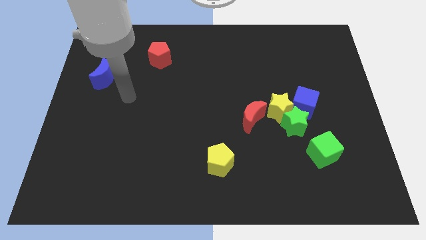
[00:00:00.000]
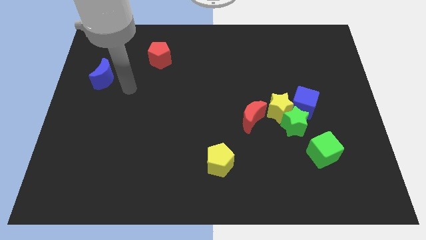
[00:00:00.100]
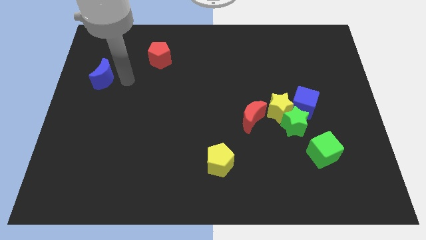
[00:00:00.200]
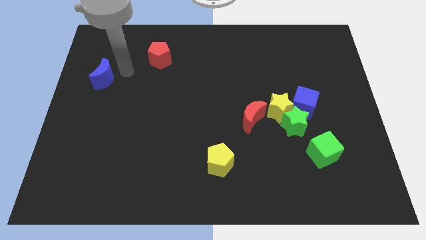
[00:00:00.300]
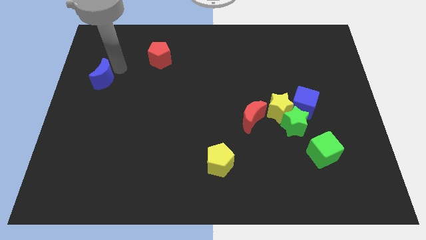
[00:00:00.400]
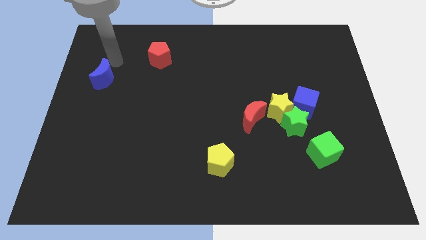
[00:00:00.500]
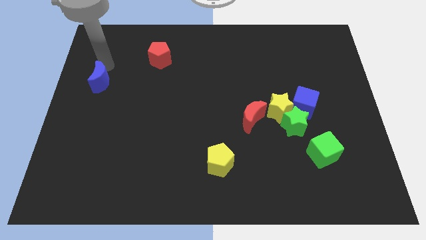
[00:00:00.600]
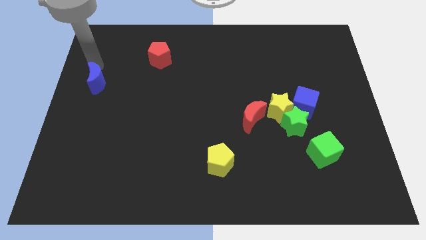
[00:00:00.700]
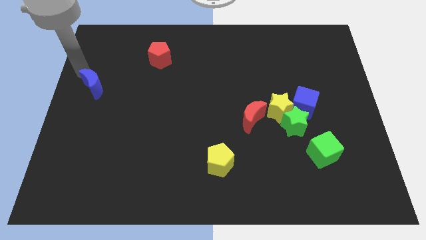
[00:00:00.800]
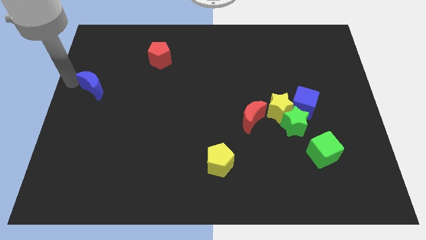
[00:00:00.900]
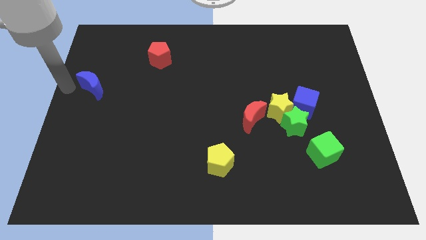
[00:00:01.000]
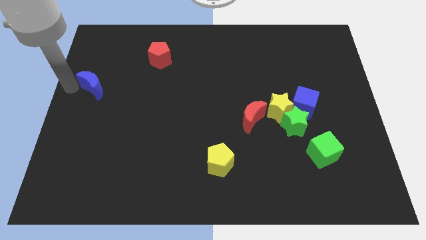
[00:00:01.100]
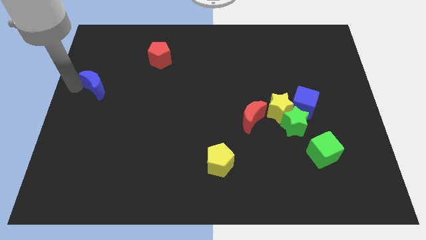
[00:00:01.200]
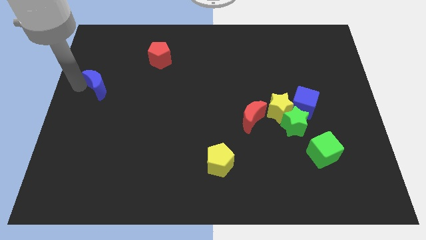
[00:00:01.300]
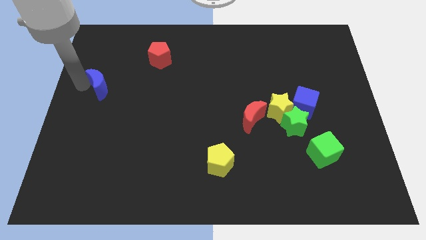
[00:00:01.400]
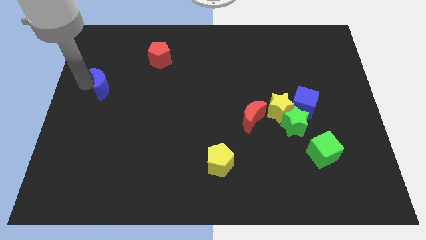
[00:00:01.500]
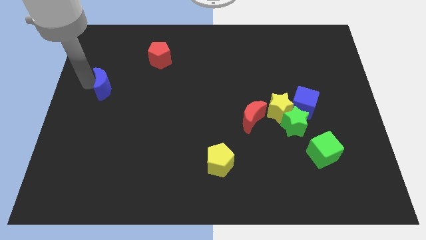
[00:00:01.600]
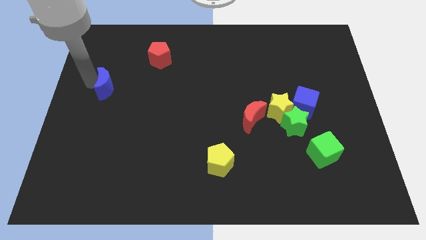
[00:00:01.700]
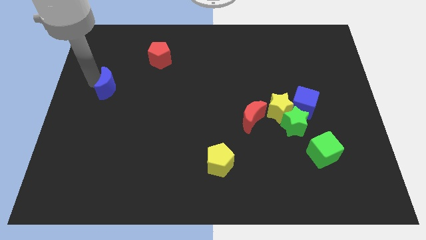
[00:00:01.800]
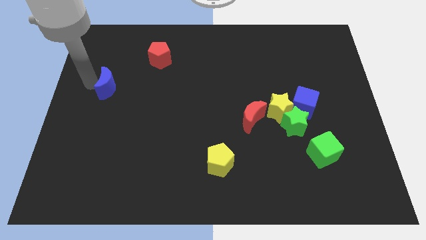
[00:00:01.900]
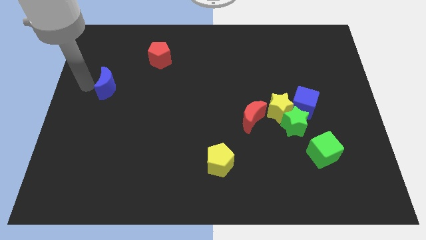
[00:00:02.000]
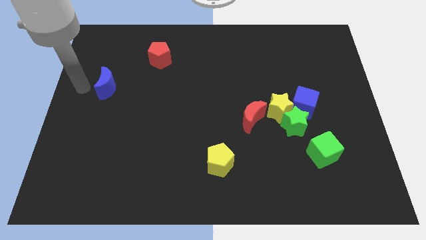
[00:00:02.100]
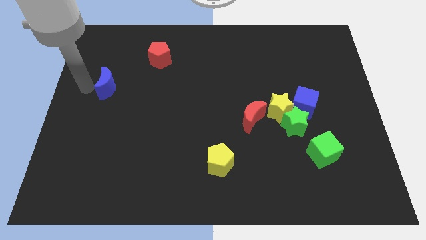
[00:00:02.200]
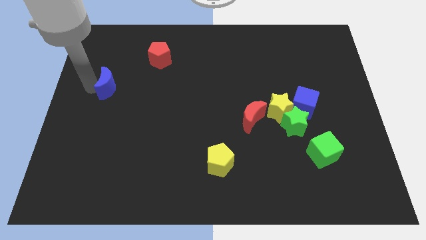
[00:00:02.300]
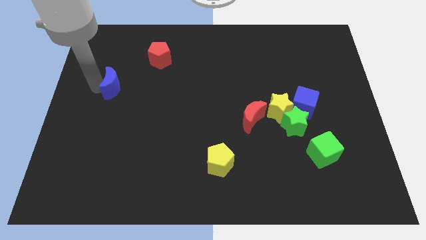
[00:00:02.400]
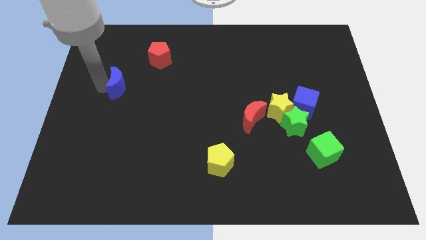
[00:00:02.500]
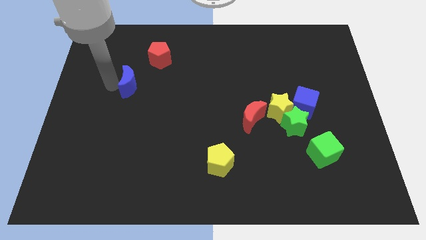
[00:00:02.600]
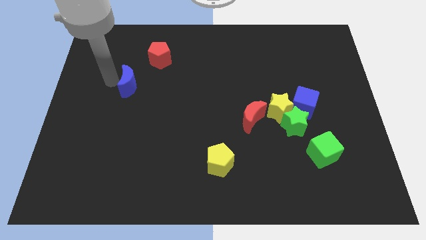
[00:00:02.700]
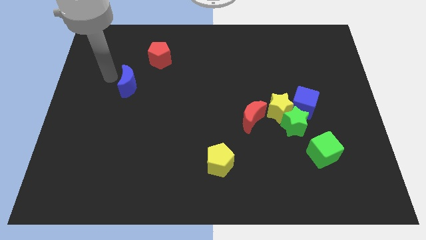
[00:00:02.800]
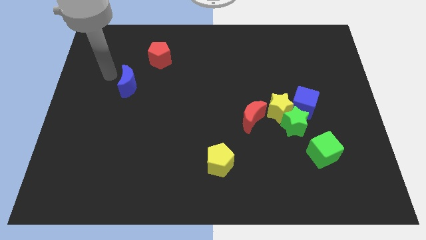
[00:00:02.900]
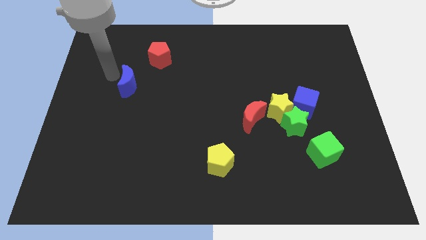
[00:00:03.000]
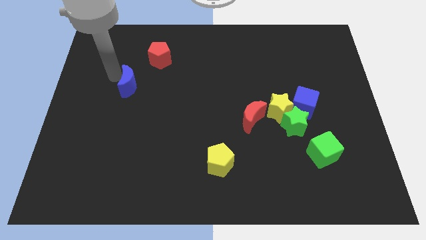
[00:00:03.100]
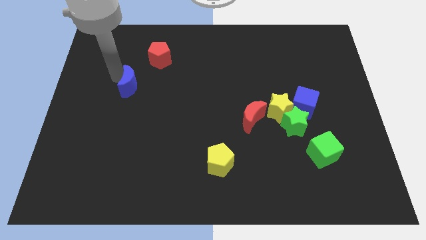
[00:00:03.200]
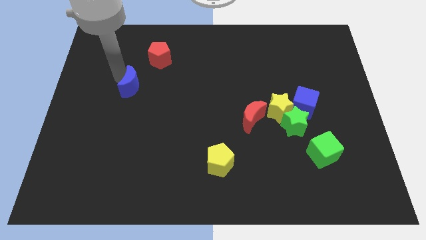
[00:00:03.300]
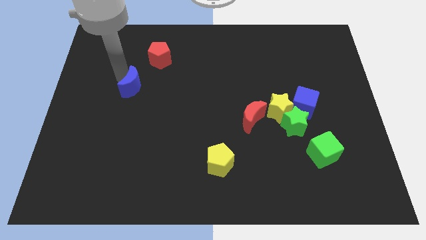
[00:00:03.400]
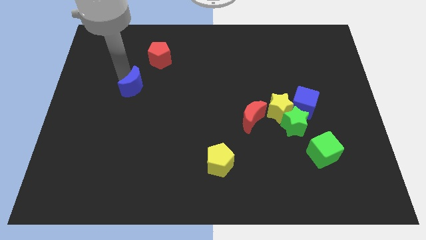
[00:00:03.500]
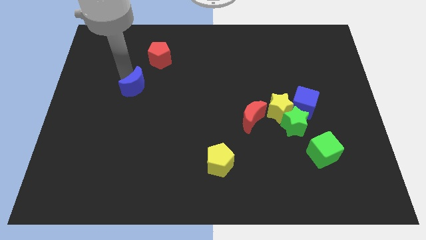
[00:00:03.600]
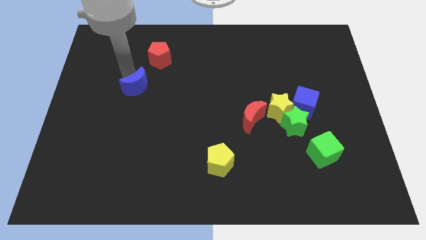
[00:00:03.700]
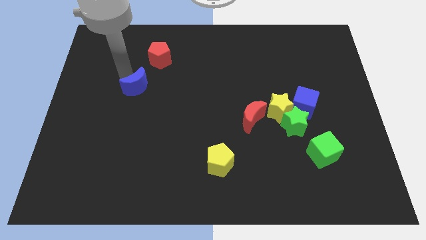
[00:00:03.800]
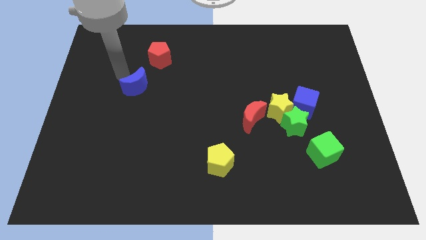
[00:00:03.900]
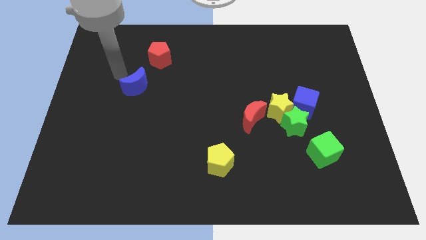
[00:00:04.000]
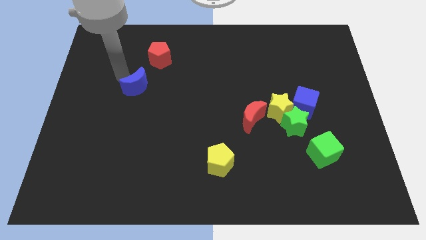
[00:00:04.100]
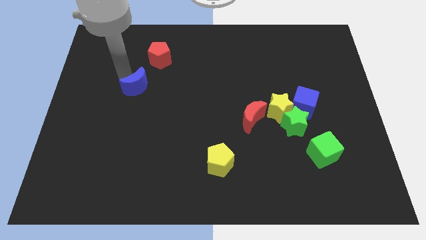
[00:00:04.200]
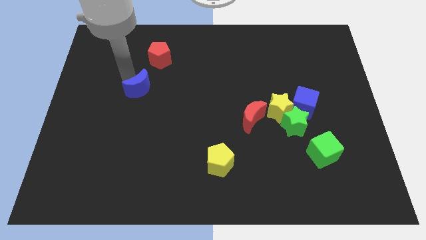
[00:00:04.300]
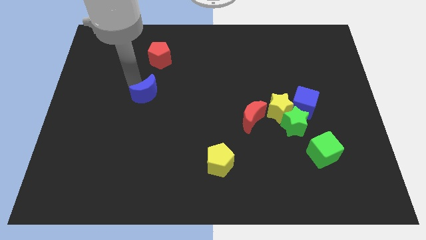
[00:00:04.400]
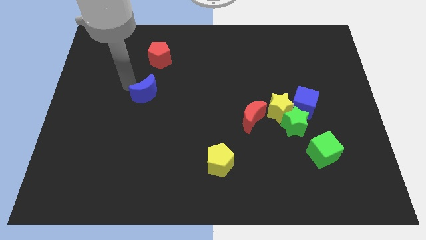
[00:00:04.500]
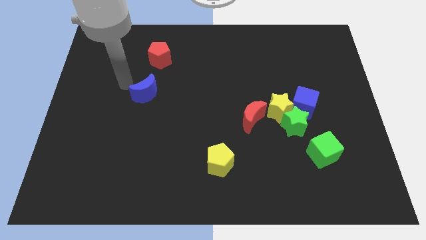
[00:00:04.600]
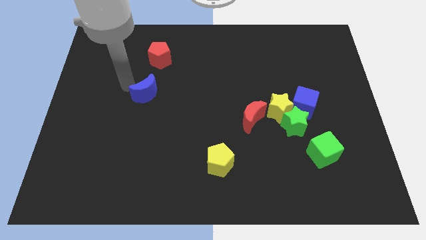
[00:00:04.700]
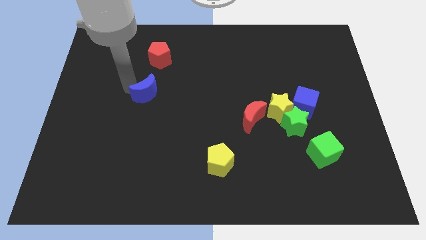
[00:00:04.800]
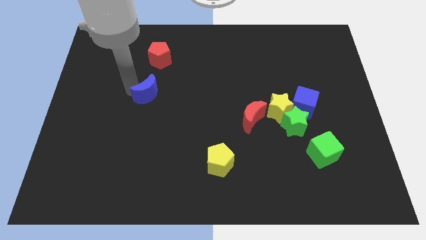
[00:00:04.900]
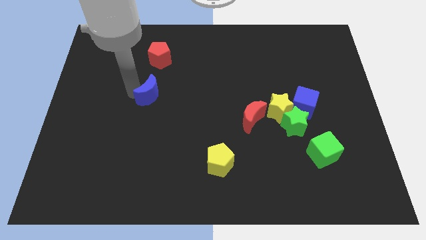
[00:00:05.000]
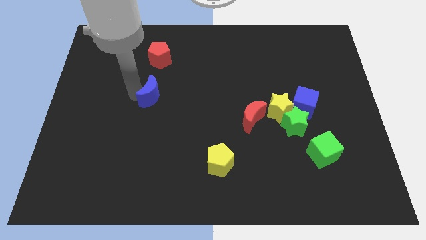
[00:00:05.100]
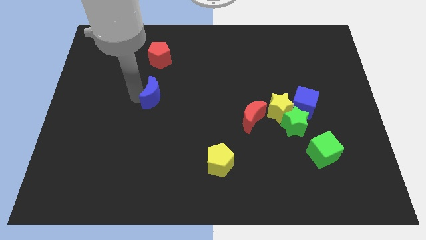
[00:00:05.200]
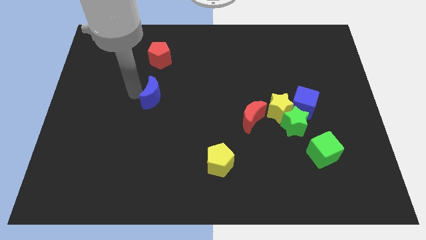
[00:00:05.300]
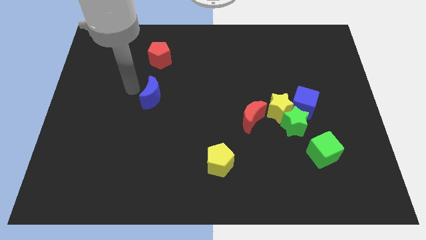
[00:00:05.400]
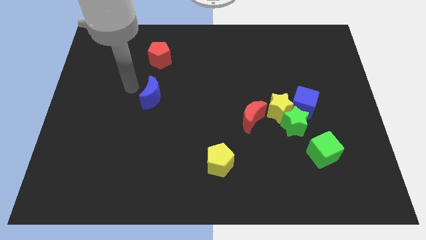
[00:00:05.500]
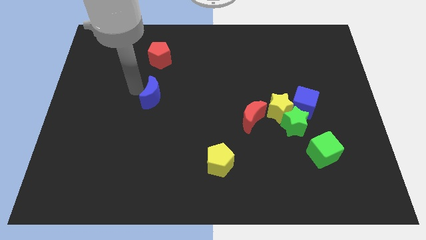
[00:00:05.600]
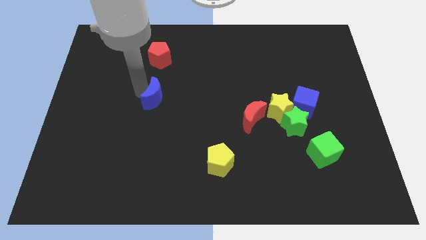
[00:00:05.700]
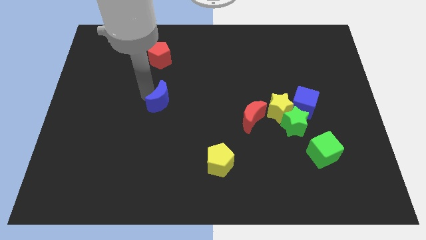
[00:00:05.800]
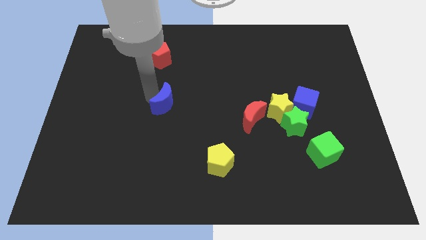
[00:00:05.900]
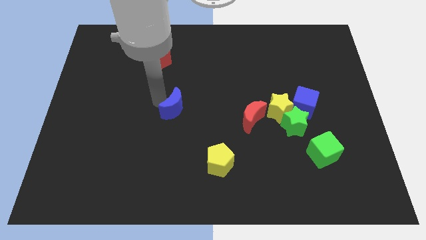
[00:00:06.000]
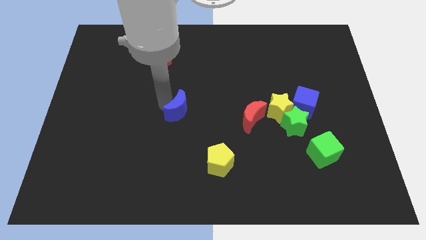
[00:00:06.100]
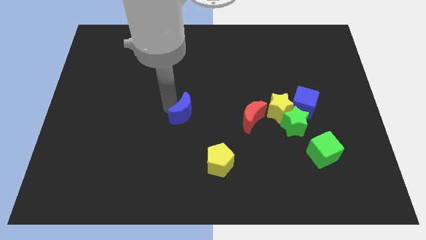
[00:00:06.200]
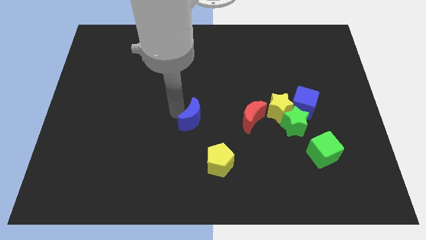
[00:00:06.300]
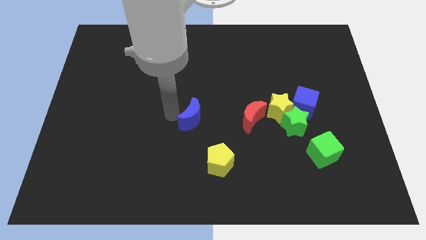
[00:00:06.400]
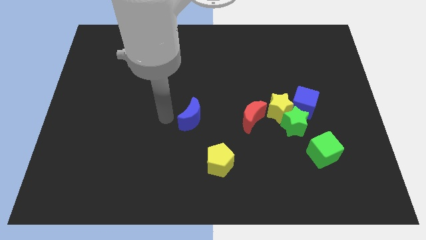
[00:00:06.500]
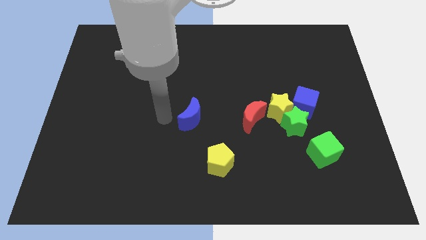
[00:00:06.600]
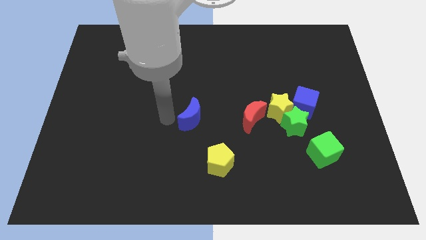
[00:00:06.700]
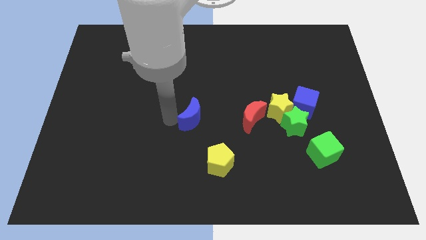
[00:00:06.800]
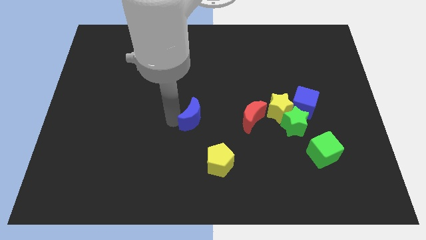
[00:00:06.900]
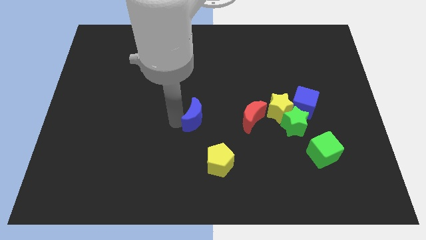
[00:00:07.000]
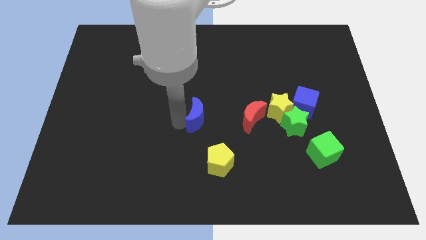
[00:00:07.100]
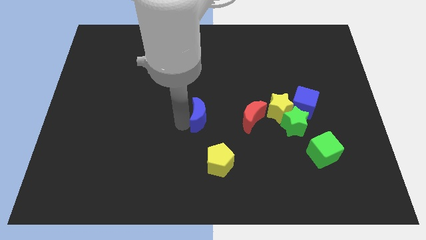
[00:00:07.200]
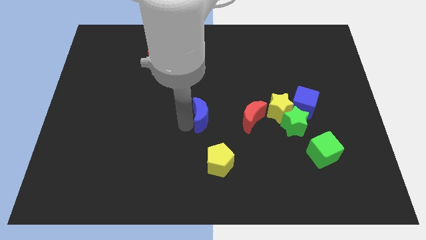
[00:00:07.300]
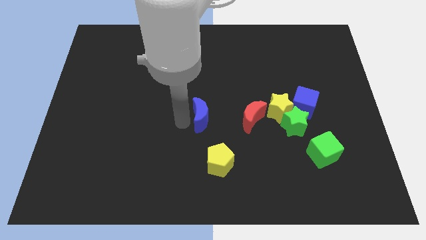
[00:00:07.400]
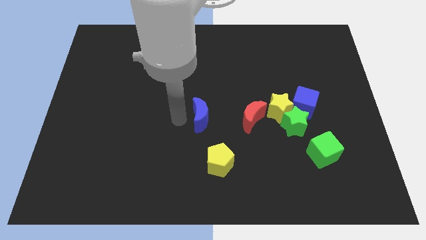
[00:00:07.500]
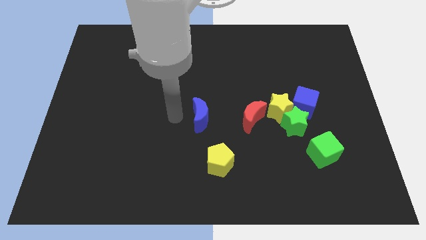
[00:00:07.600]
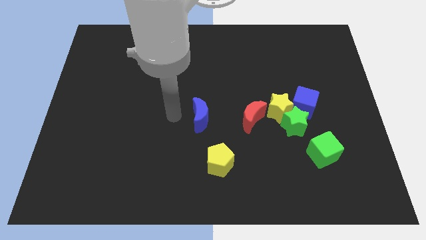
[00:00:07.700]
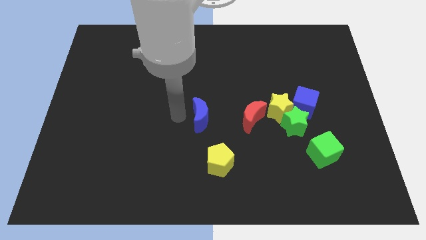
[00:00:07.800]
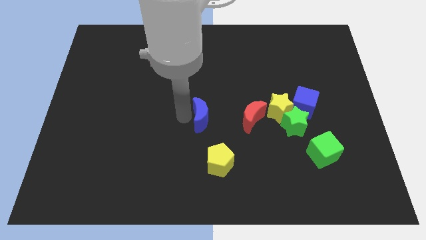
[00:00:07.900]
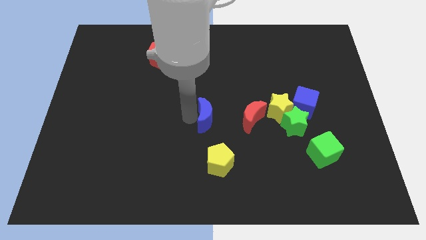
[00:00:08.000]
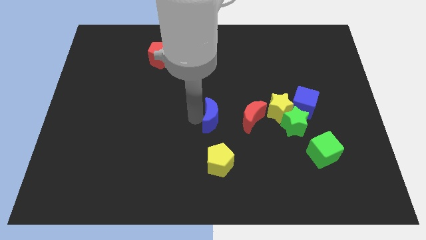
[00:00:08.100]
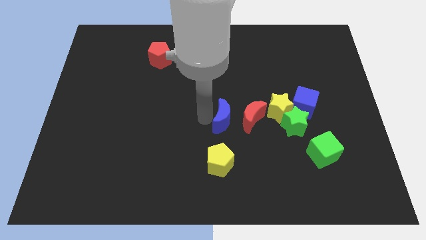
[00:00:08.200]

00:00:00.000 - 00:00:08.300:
push the blue moon just left of the green star
